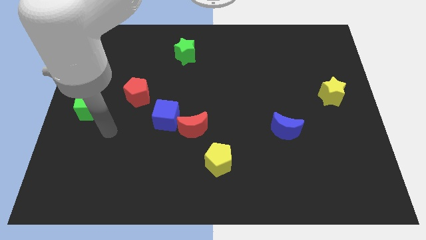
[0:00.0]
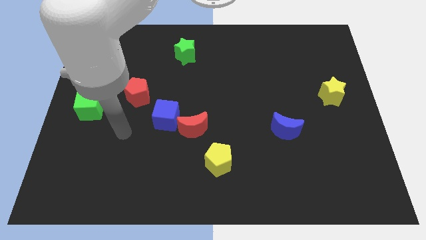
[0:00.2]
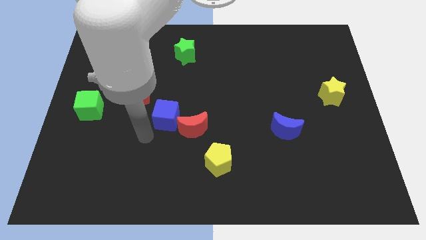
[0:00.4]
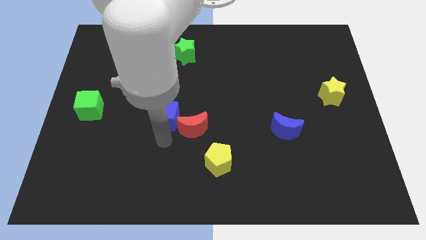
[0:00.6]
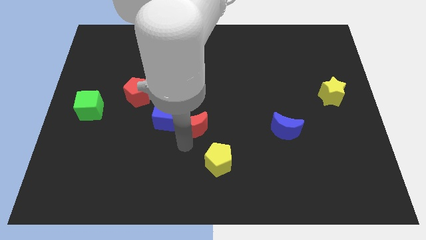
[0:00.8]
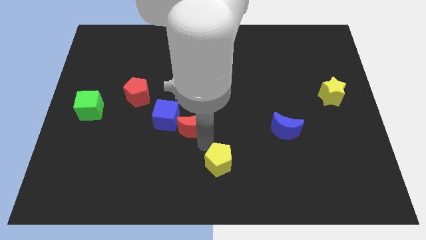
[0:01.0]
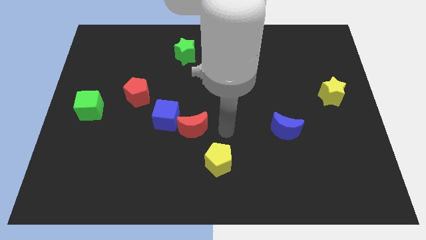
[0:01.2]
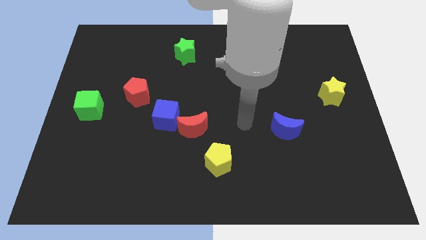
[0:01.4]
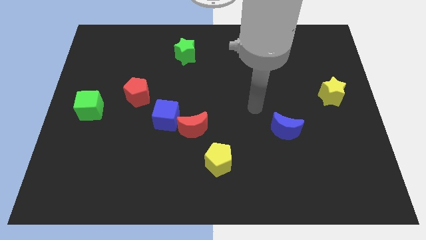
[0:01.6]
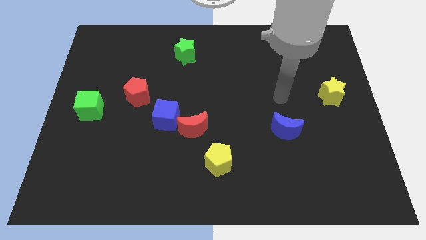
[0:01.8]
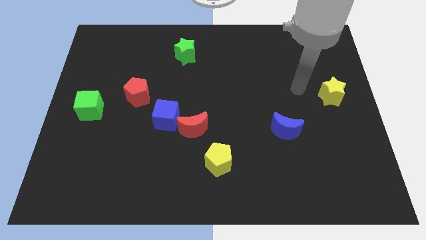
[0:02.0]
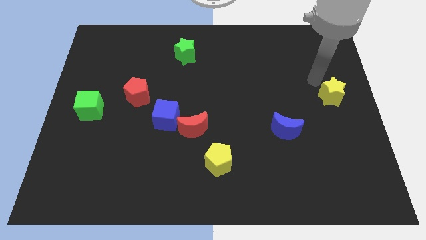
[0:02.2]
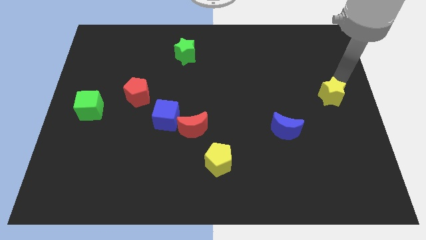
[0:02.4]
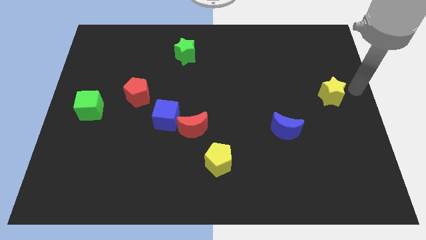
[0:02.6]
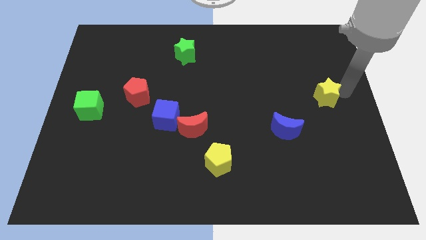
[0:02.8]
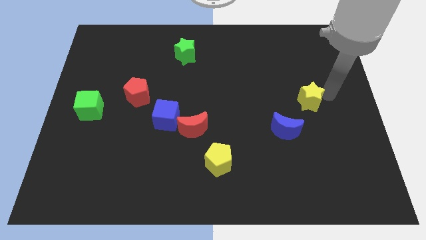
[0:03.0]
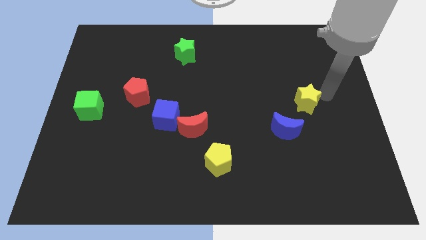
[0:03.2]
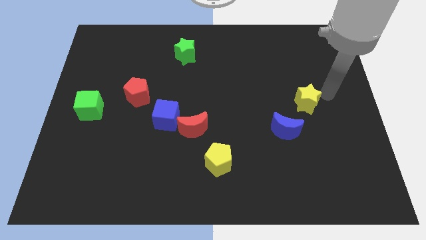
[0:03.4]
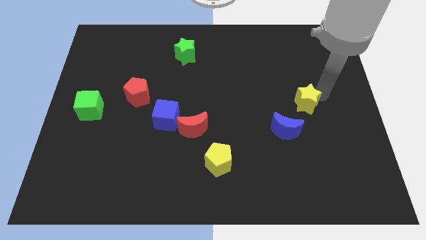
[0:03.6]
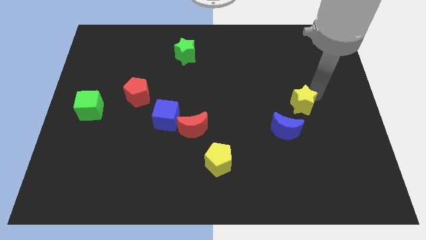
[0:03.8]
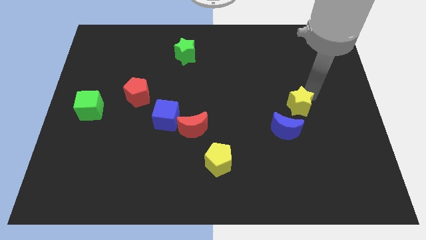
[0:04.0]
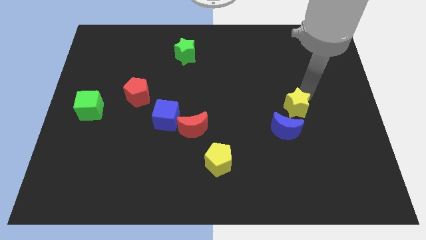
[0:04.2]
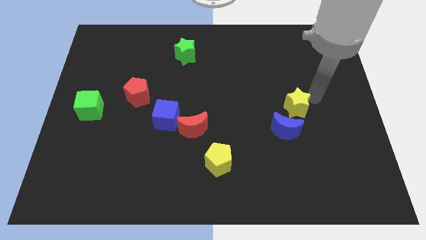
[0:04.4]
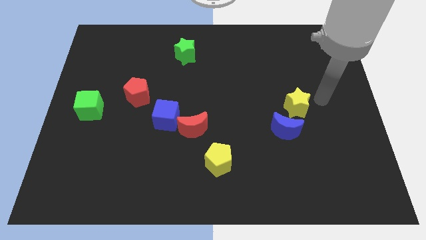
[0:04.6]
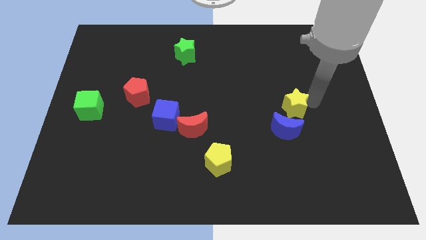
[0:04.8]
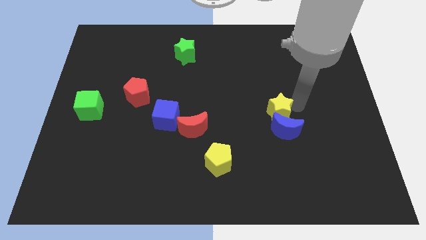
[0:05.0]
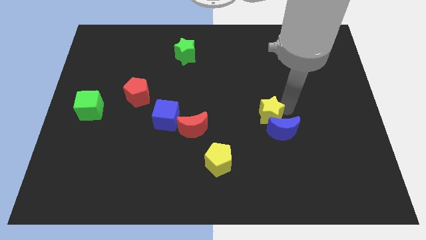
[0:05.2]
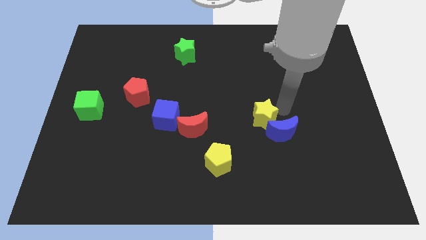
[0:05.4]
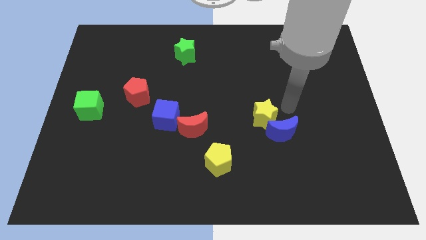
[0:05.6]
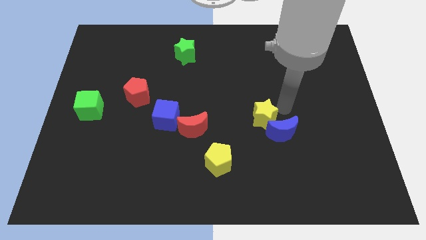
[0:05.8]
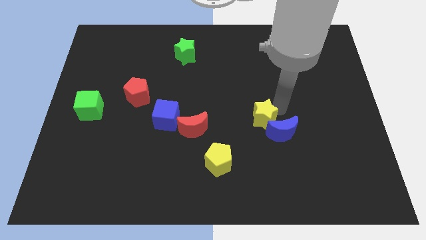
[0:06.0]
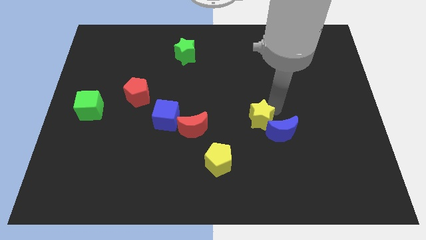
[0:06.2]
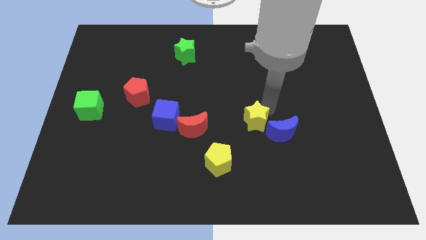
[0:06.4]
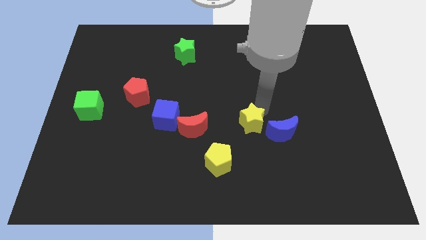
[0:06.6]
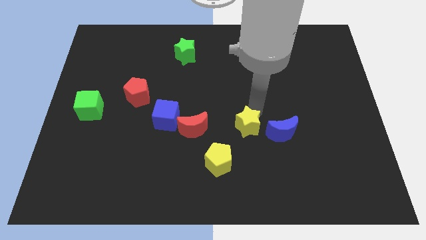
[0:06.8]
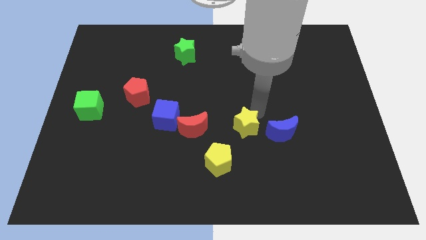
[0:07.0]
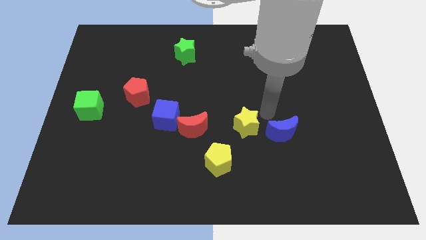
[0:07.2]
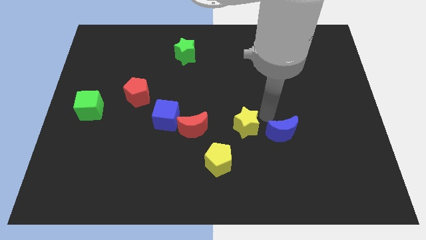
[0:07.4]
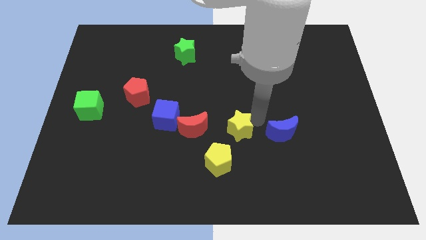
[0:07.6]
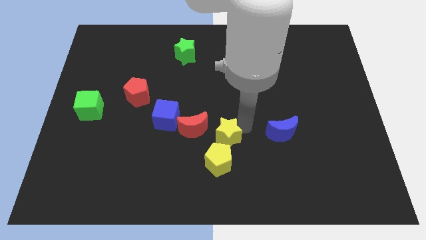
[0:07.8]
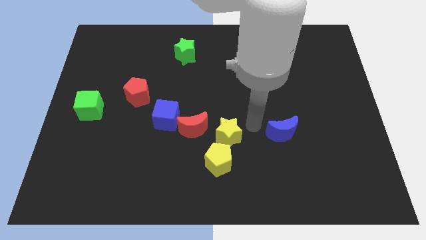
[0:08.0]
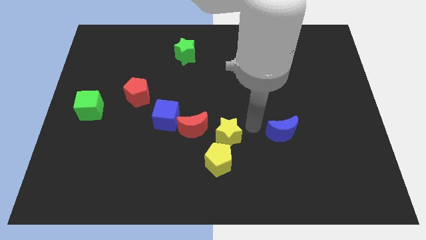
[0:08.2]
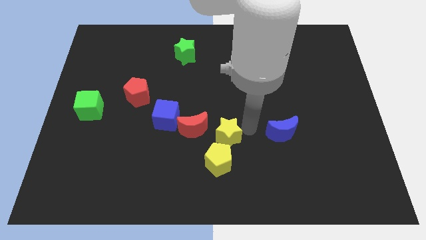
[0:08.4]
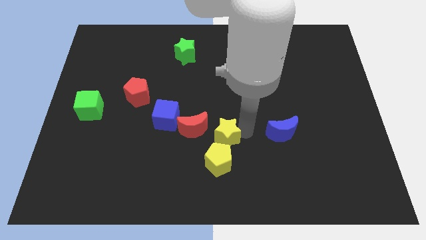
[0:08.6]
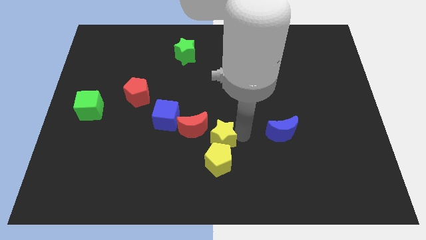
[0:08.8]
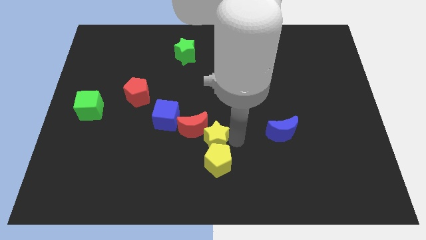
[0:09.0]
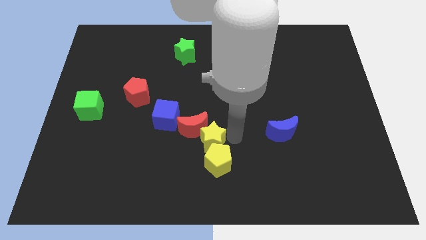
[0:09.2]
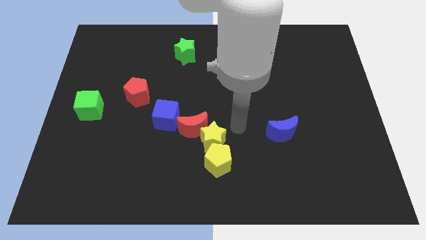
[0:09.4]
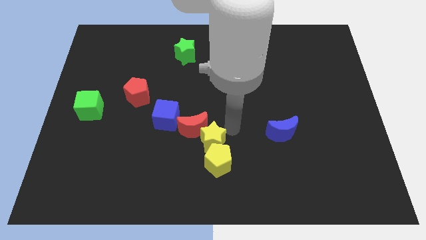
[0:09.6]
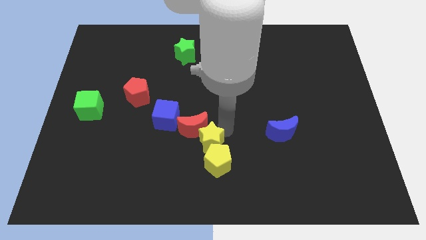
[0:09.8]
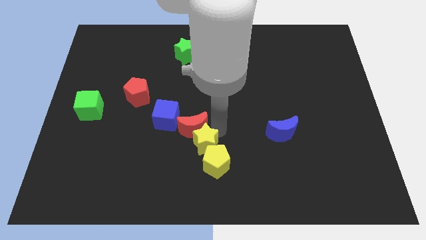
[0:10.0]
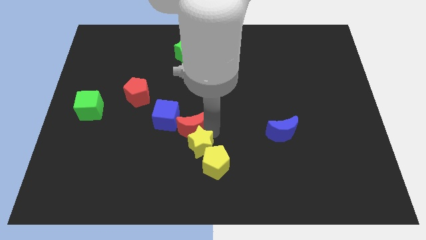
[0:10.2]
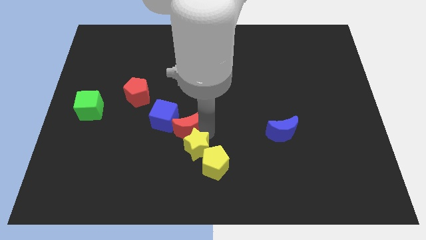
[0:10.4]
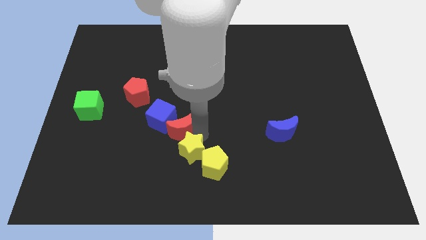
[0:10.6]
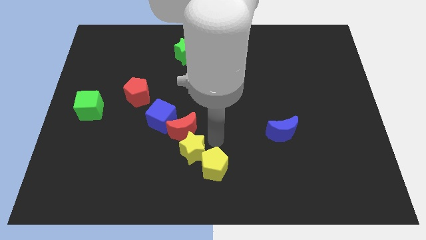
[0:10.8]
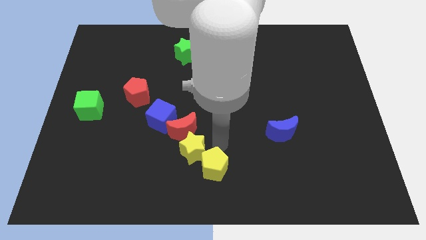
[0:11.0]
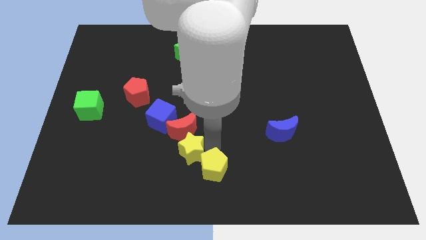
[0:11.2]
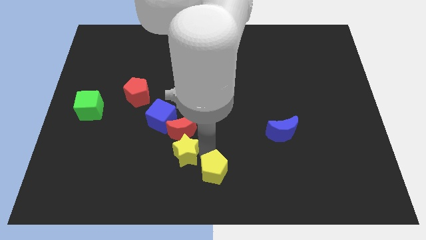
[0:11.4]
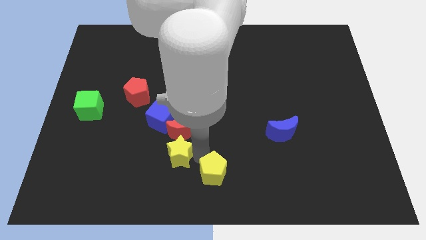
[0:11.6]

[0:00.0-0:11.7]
move the yellow star to the bottom side of the blue cube

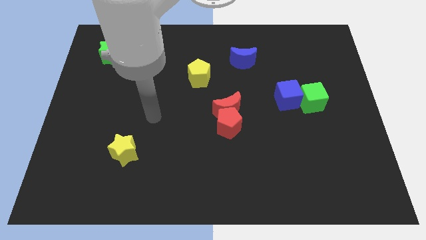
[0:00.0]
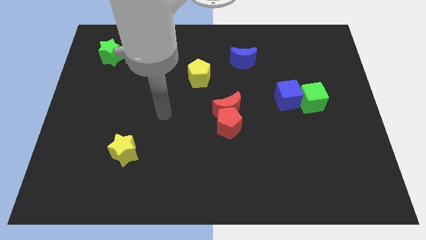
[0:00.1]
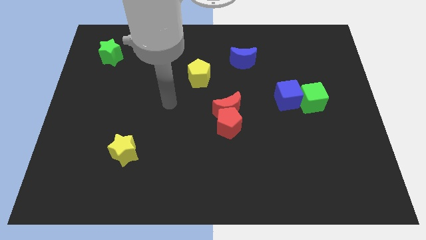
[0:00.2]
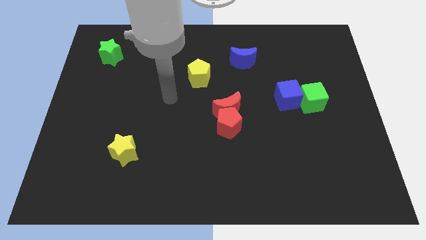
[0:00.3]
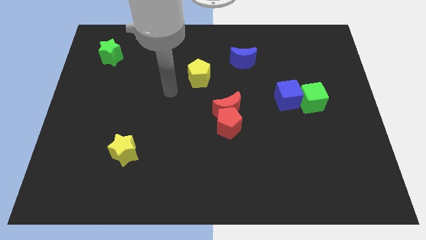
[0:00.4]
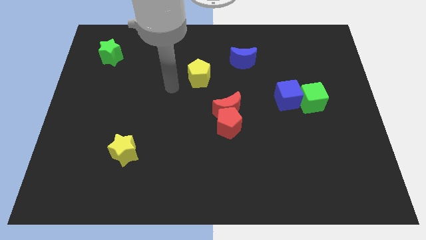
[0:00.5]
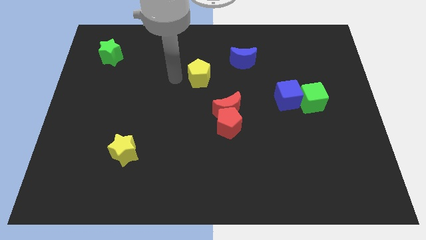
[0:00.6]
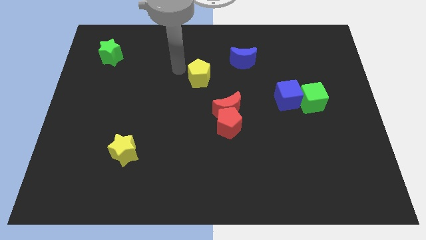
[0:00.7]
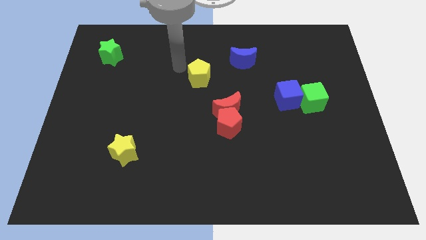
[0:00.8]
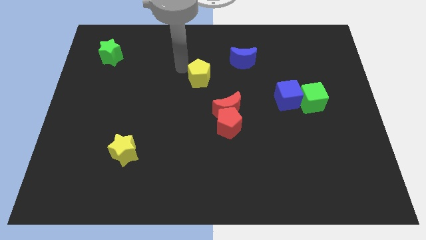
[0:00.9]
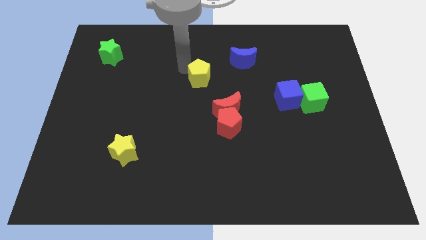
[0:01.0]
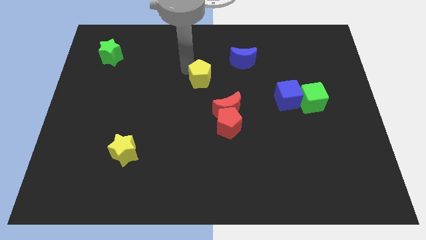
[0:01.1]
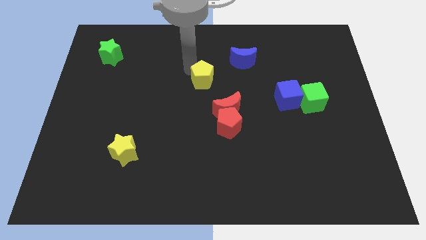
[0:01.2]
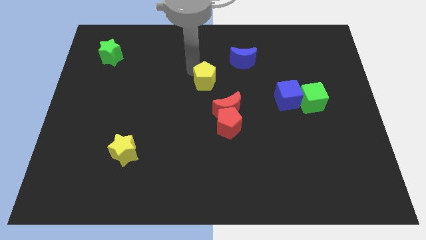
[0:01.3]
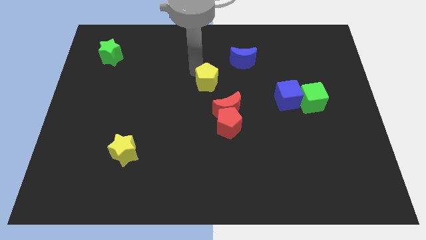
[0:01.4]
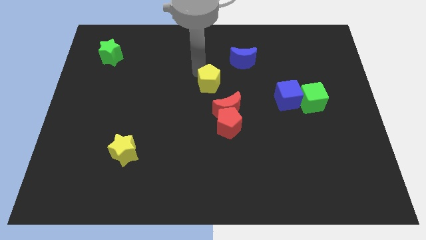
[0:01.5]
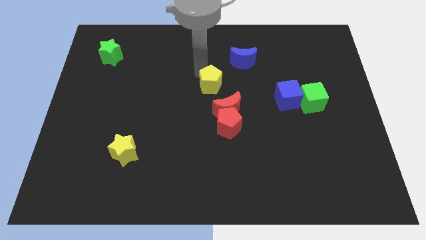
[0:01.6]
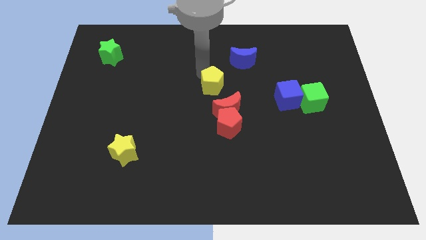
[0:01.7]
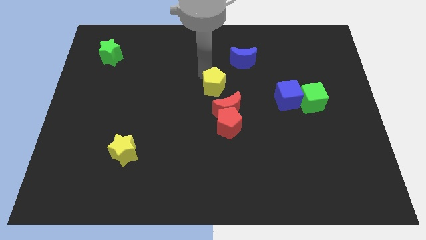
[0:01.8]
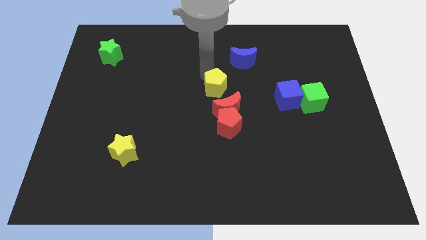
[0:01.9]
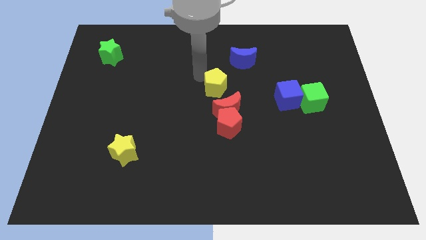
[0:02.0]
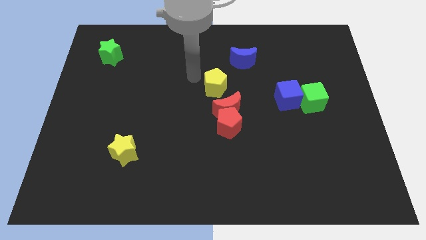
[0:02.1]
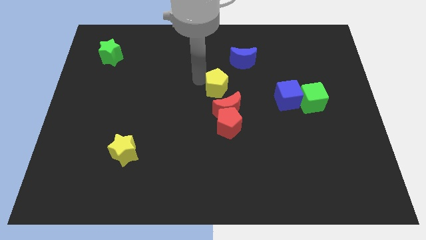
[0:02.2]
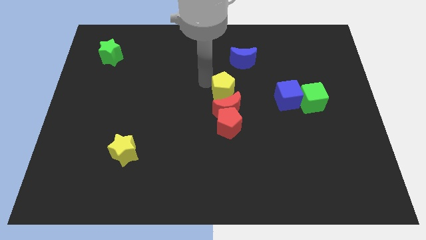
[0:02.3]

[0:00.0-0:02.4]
slide the yellow pentagon to the left of the blue cube
